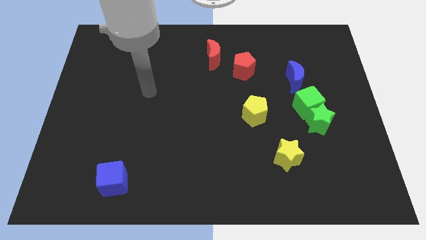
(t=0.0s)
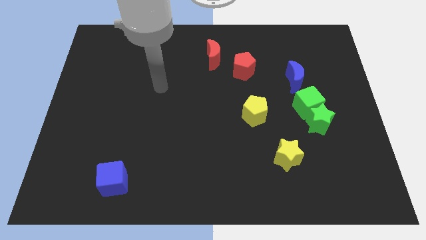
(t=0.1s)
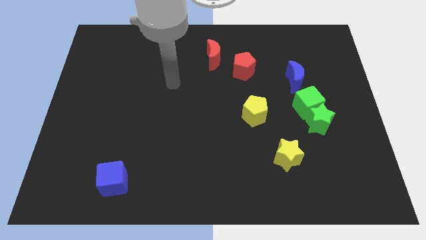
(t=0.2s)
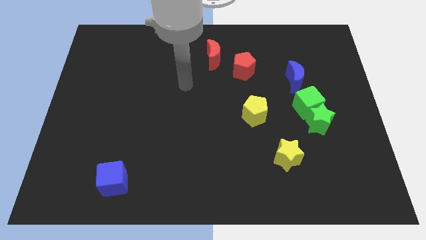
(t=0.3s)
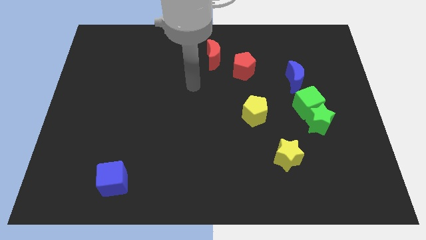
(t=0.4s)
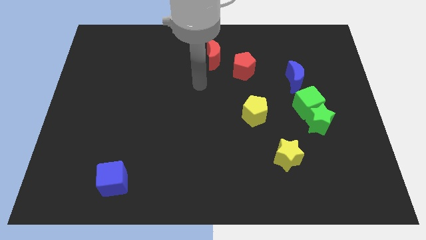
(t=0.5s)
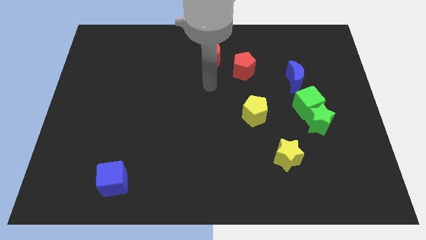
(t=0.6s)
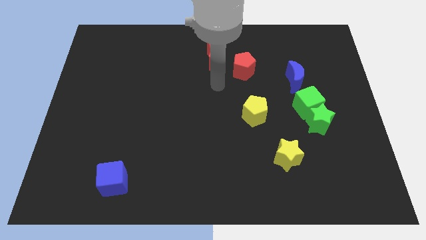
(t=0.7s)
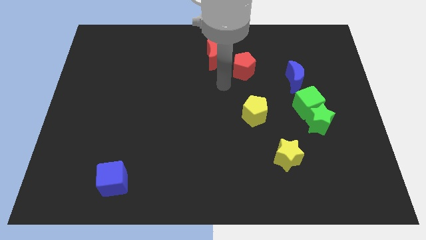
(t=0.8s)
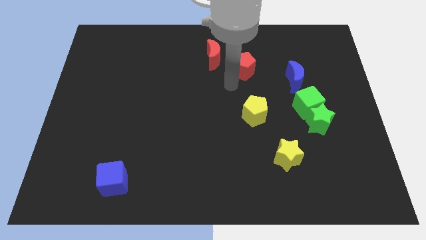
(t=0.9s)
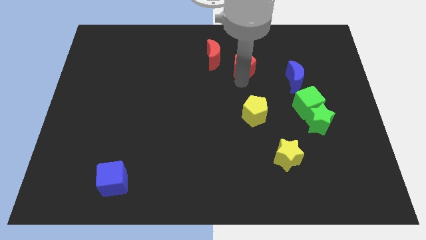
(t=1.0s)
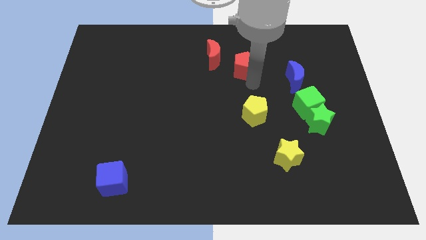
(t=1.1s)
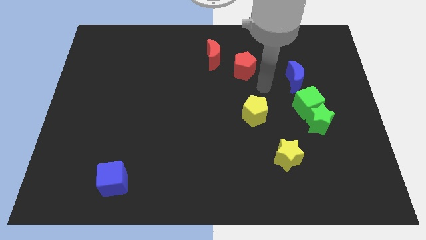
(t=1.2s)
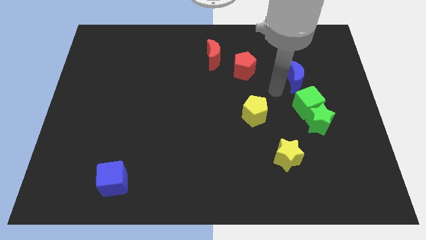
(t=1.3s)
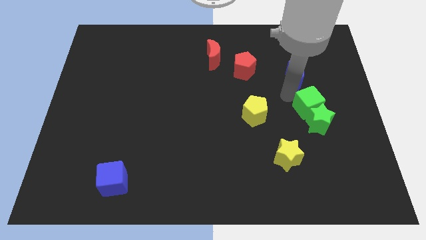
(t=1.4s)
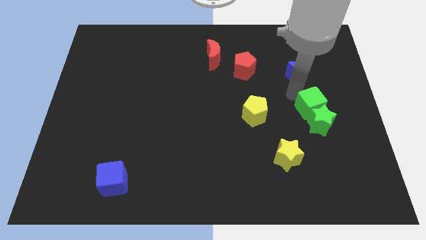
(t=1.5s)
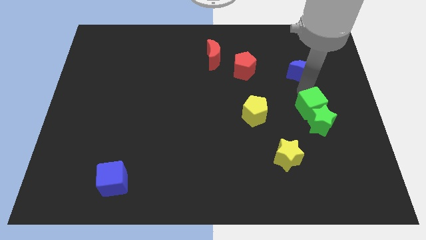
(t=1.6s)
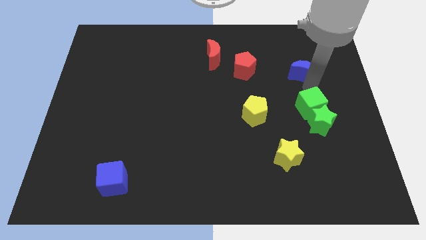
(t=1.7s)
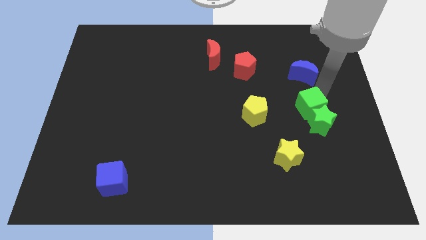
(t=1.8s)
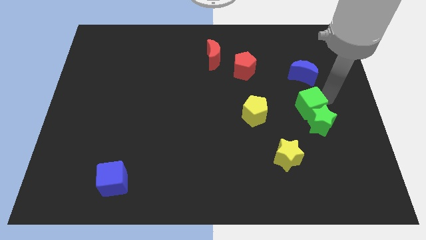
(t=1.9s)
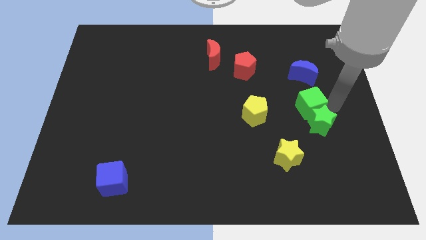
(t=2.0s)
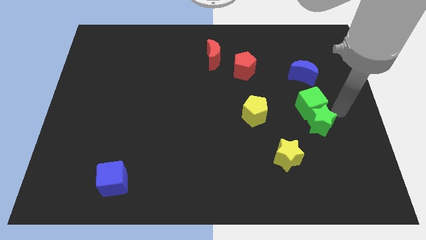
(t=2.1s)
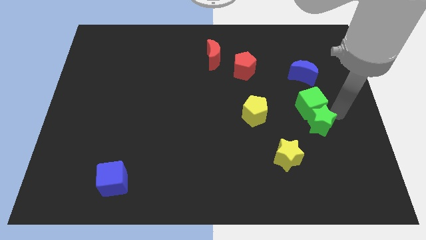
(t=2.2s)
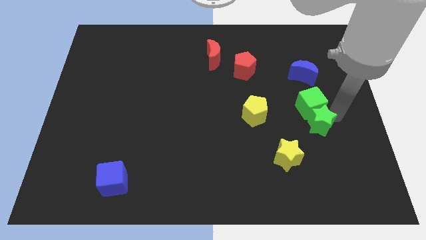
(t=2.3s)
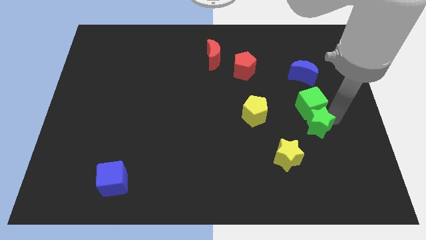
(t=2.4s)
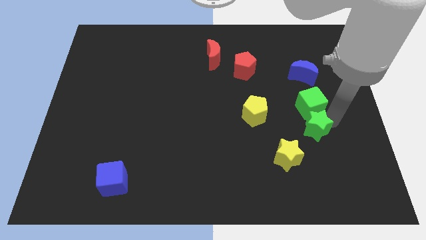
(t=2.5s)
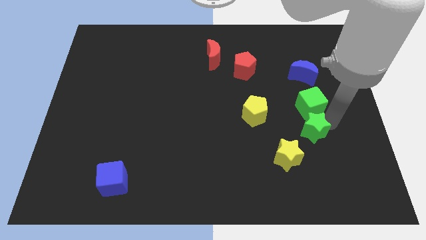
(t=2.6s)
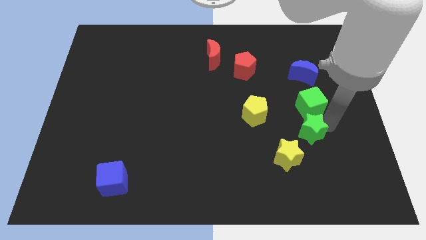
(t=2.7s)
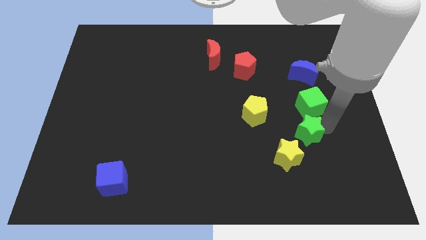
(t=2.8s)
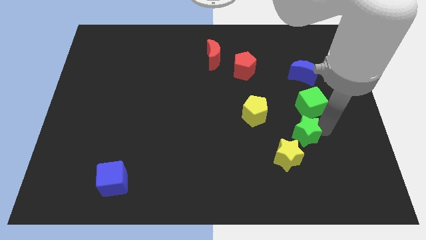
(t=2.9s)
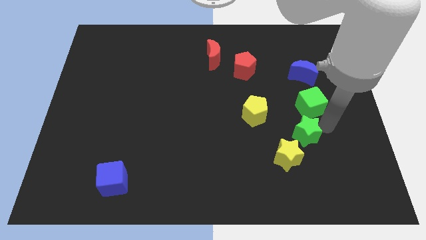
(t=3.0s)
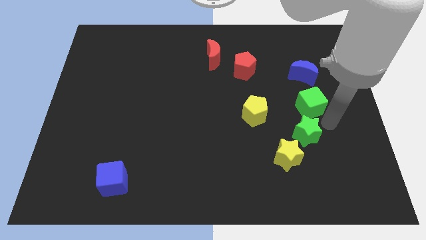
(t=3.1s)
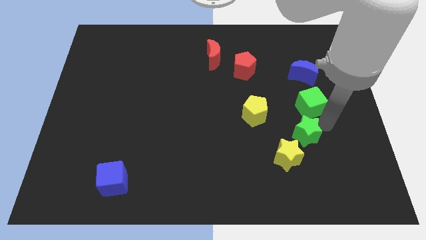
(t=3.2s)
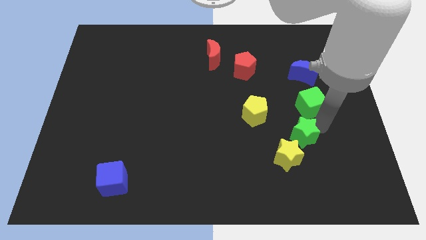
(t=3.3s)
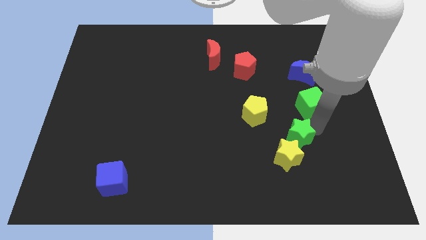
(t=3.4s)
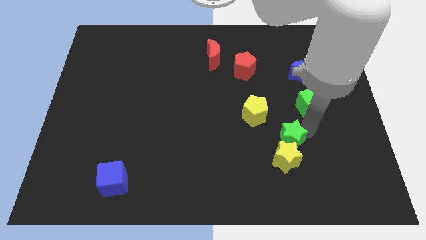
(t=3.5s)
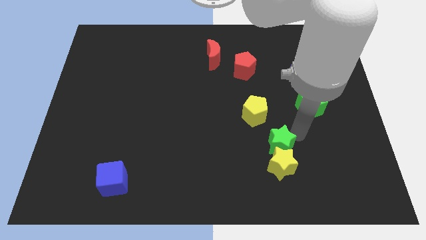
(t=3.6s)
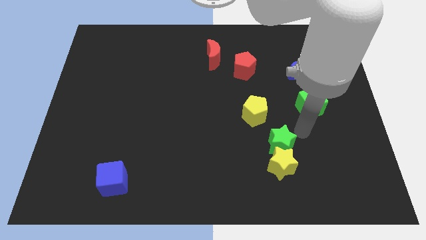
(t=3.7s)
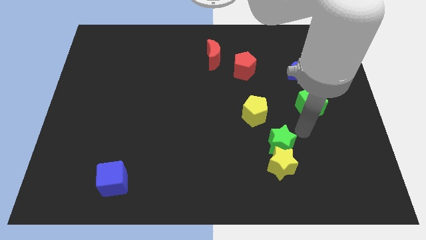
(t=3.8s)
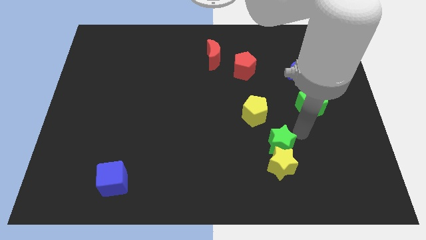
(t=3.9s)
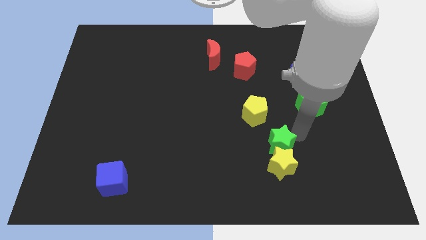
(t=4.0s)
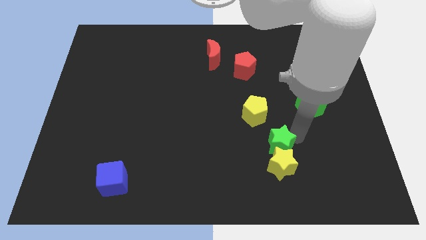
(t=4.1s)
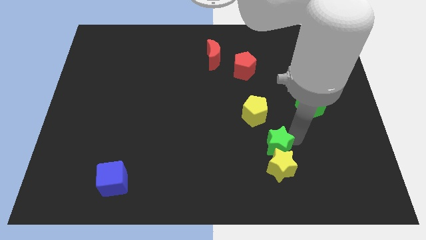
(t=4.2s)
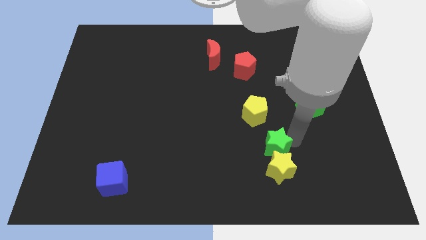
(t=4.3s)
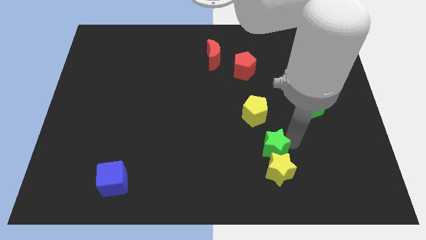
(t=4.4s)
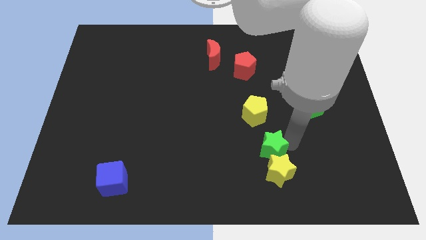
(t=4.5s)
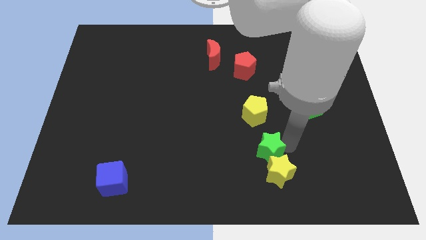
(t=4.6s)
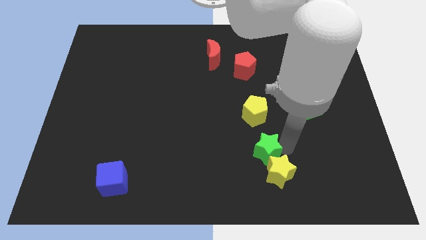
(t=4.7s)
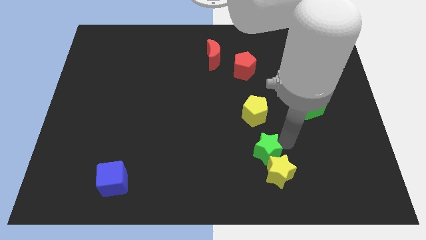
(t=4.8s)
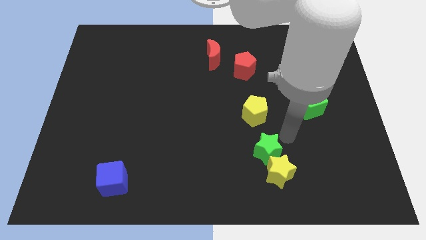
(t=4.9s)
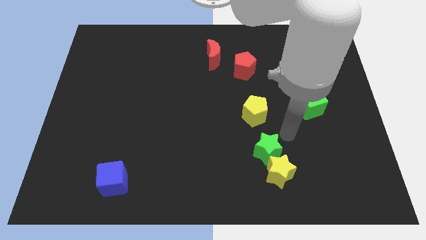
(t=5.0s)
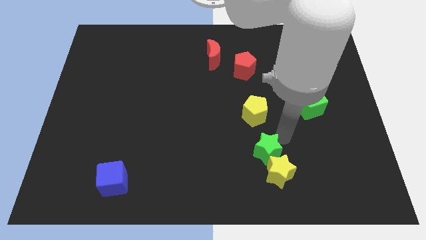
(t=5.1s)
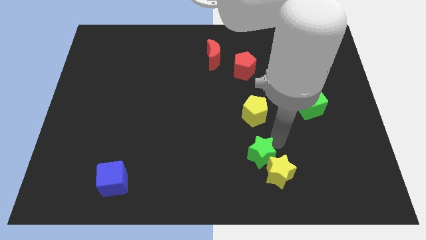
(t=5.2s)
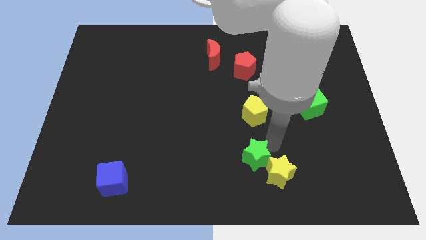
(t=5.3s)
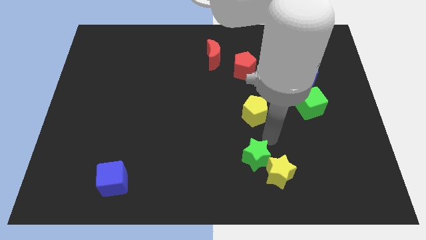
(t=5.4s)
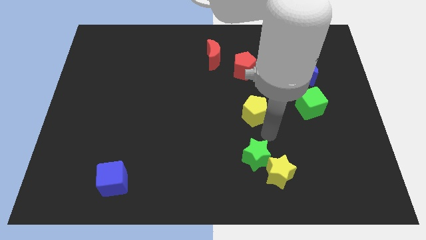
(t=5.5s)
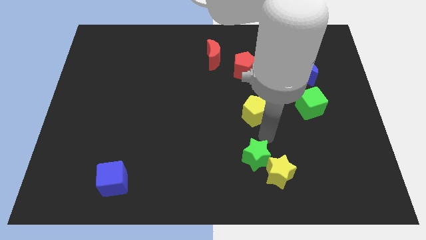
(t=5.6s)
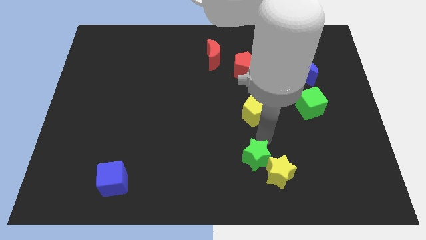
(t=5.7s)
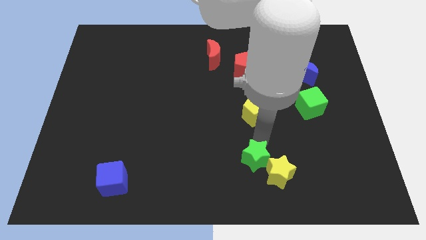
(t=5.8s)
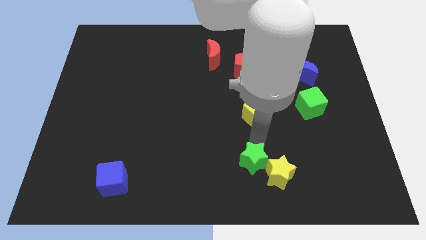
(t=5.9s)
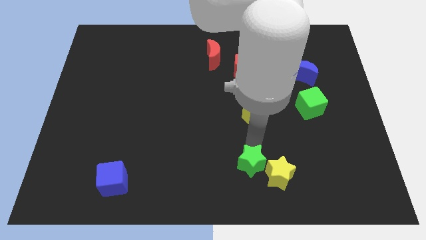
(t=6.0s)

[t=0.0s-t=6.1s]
move the green star to the bottom side

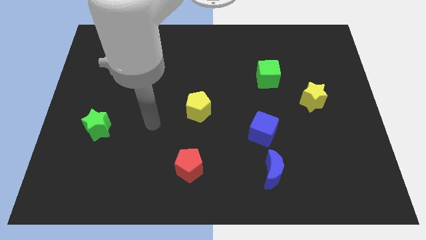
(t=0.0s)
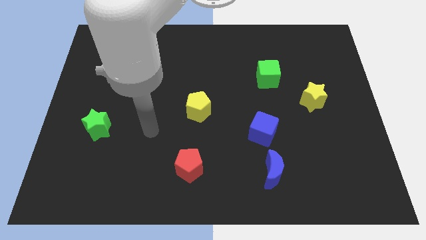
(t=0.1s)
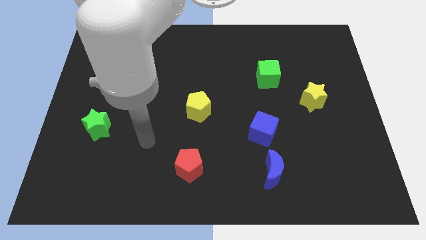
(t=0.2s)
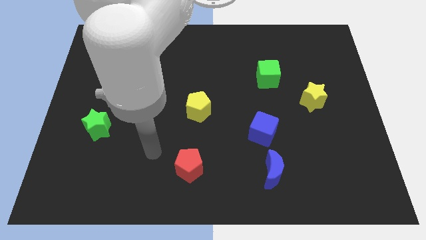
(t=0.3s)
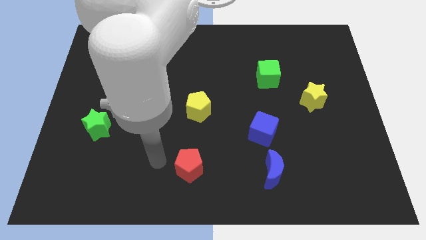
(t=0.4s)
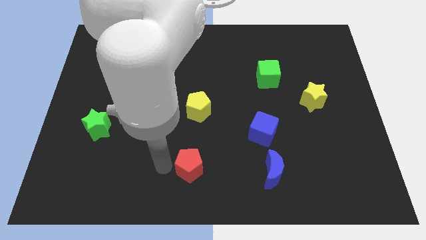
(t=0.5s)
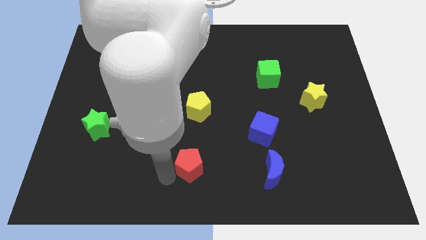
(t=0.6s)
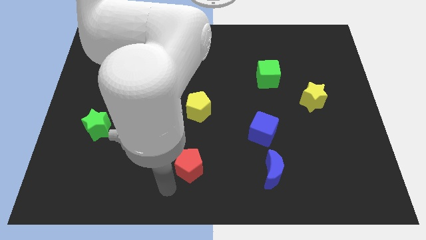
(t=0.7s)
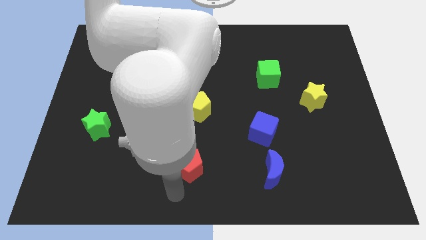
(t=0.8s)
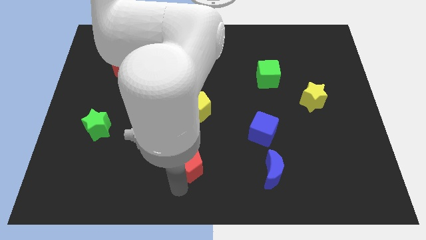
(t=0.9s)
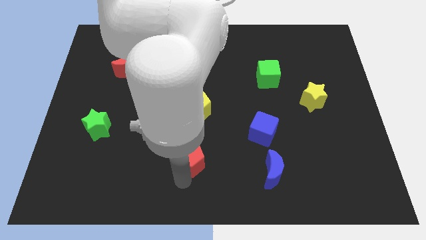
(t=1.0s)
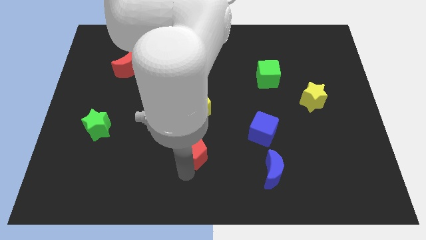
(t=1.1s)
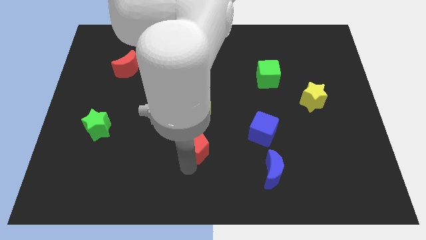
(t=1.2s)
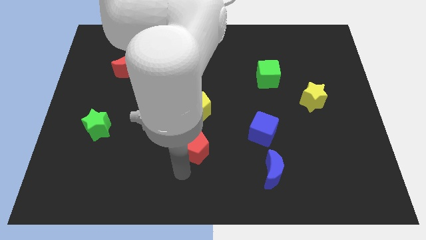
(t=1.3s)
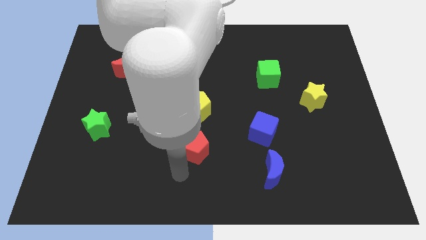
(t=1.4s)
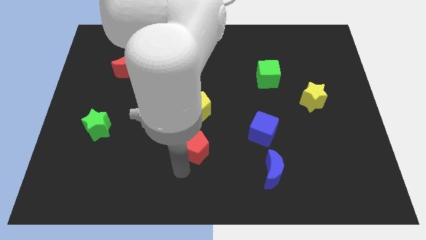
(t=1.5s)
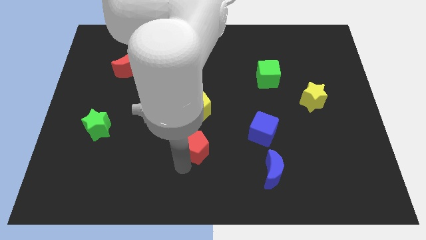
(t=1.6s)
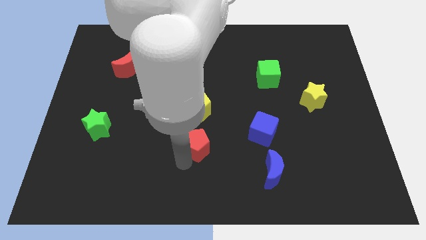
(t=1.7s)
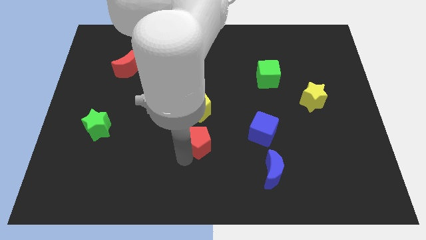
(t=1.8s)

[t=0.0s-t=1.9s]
move the red pentagon to the center
